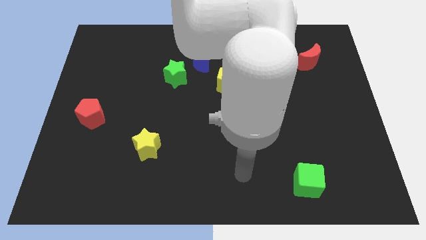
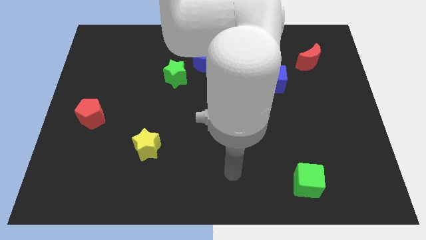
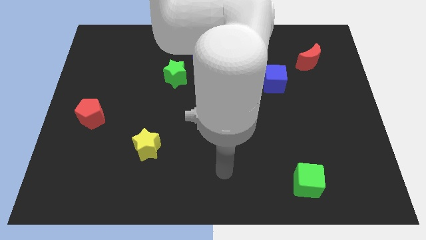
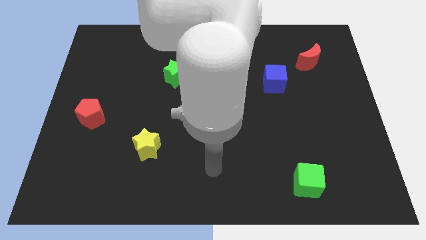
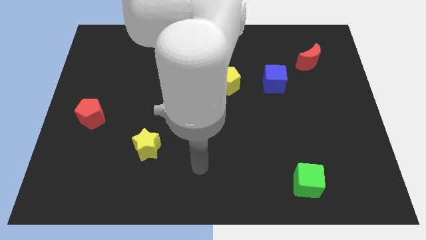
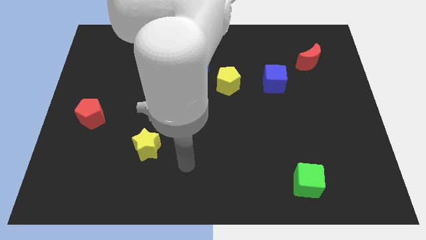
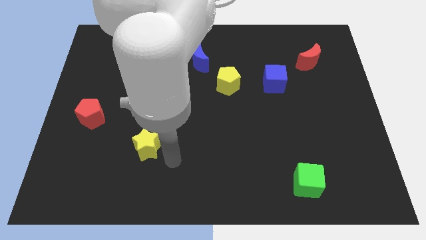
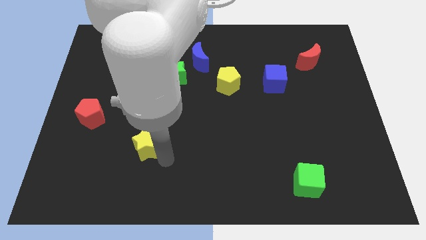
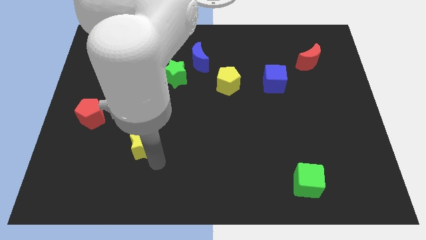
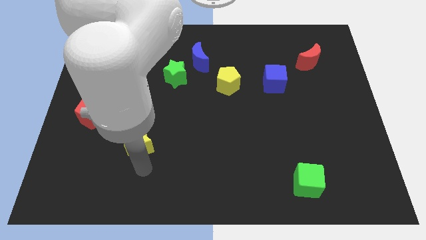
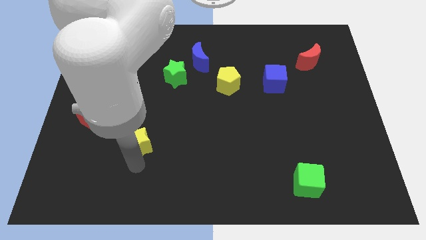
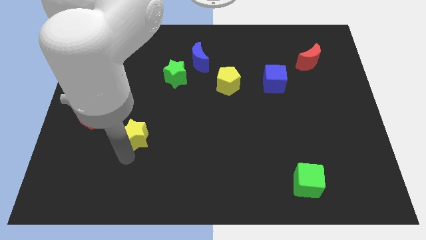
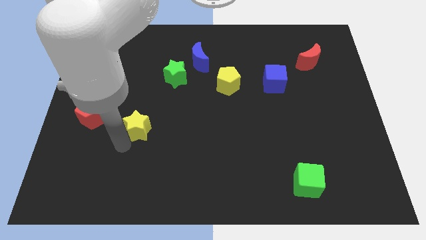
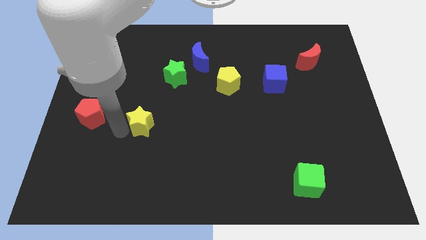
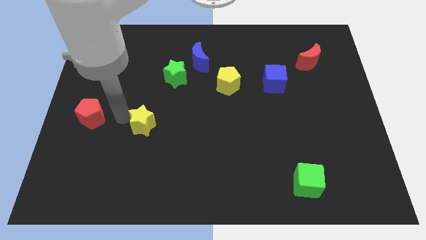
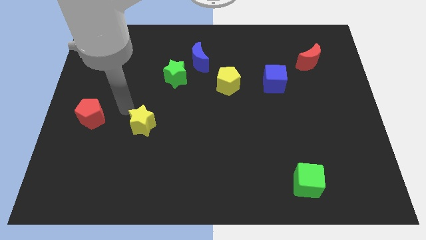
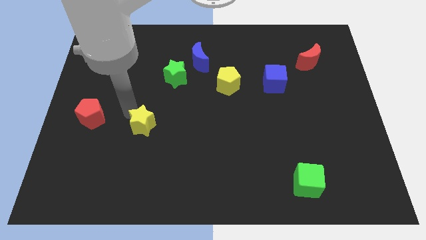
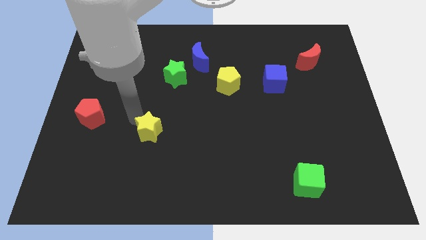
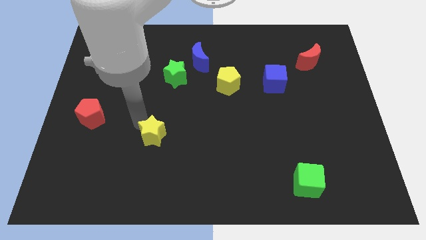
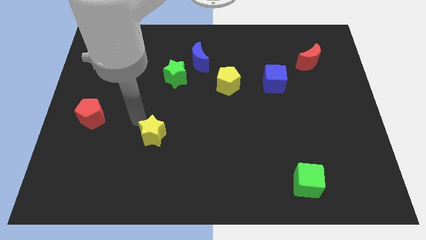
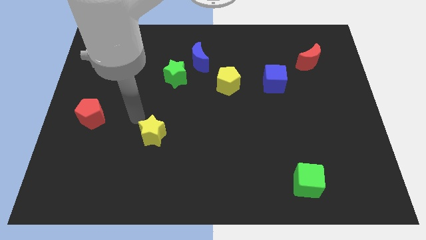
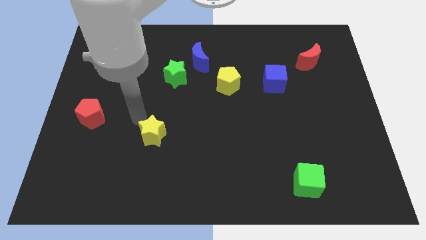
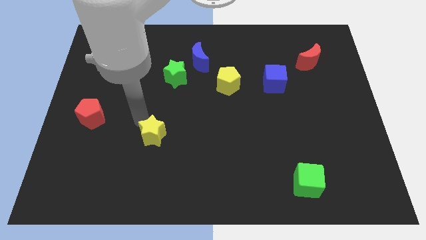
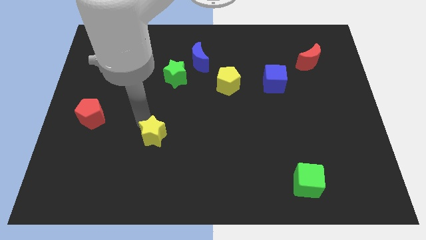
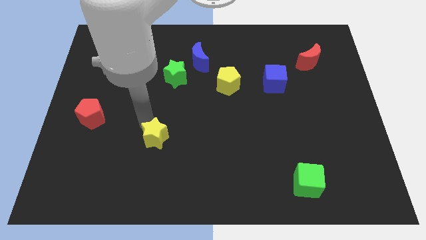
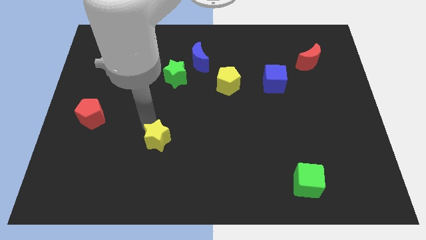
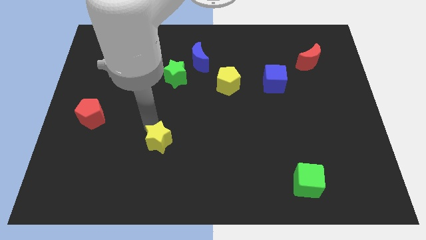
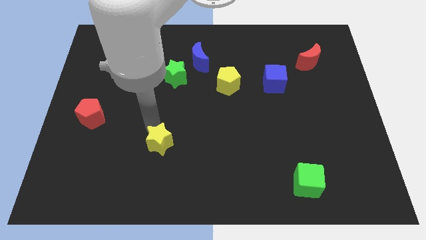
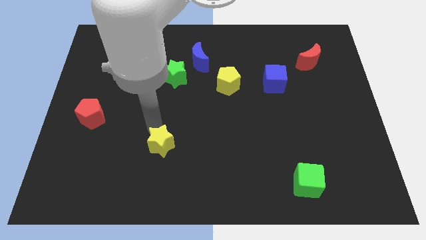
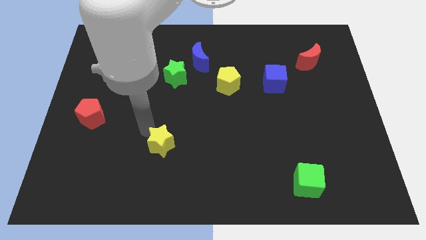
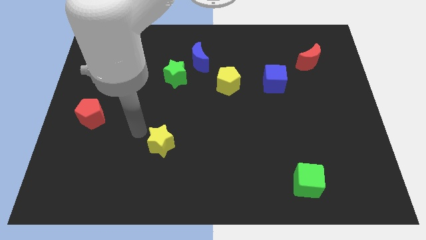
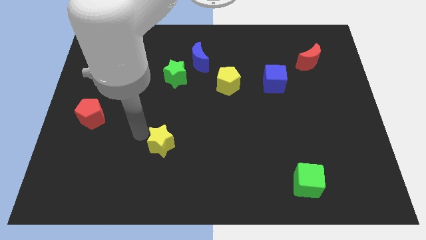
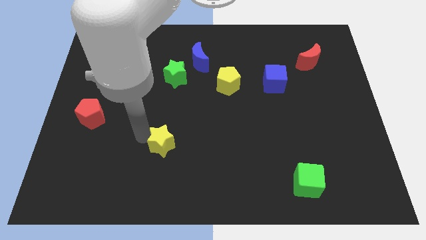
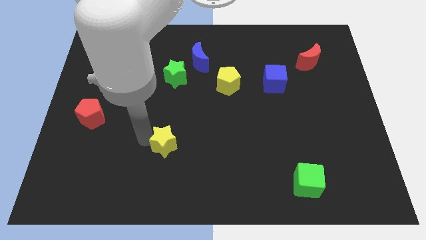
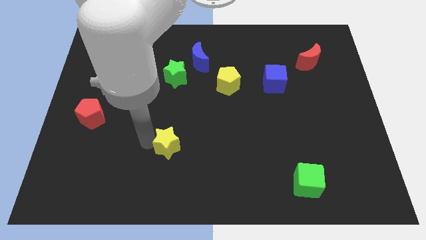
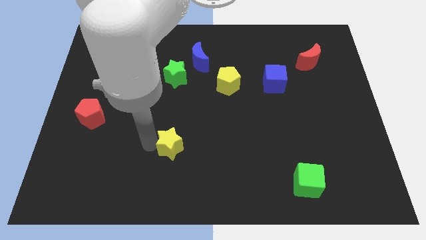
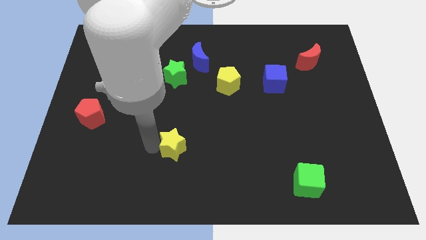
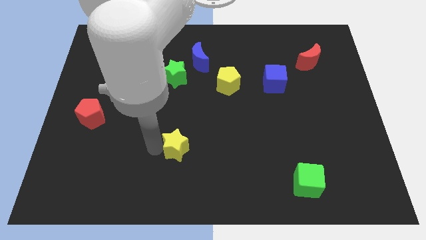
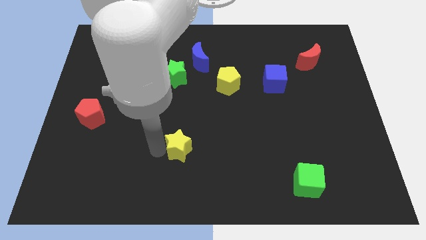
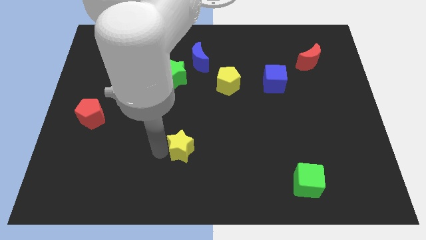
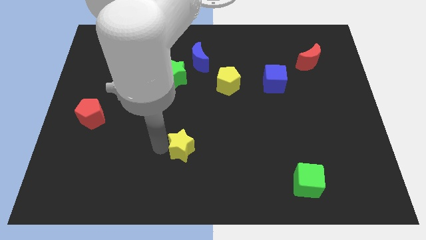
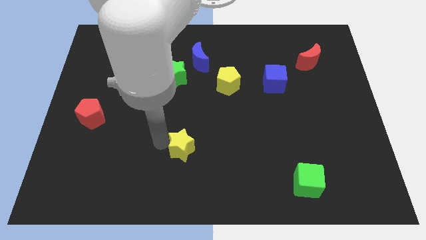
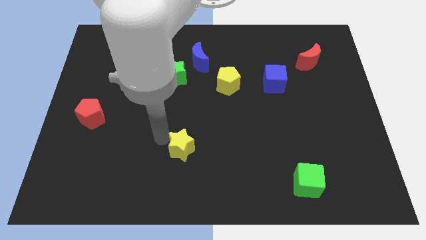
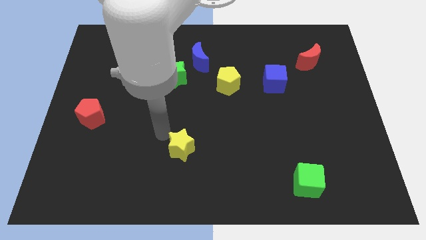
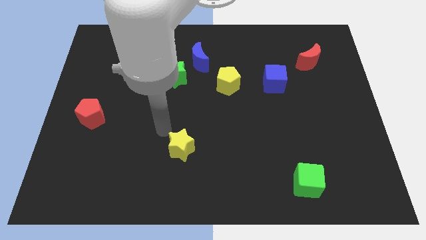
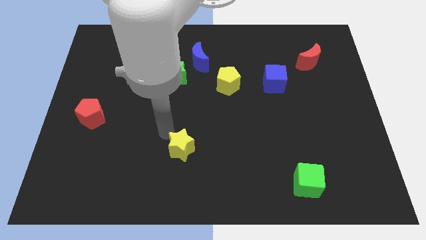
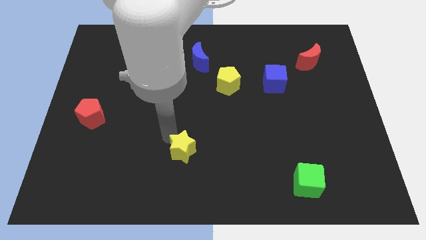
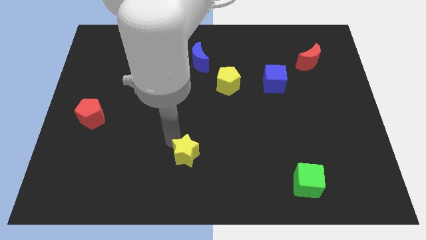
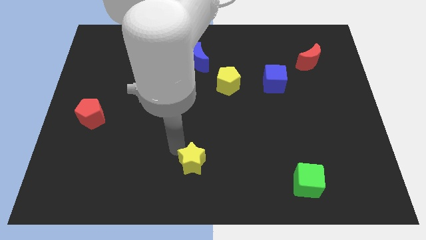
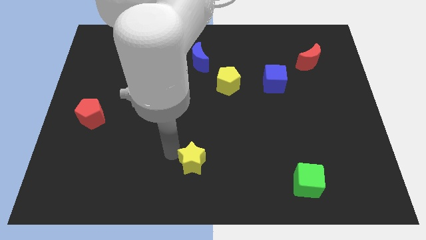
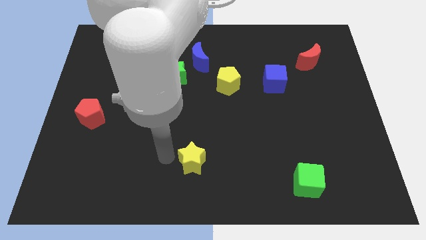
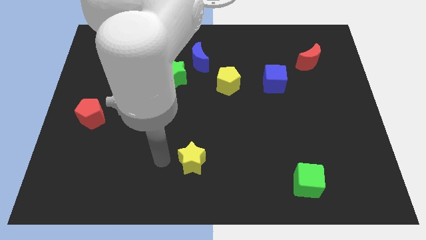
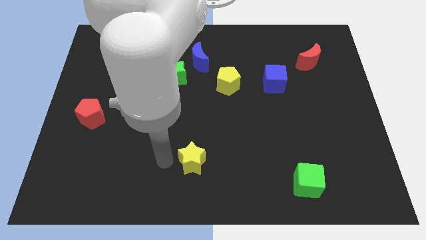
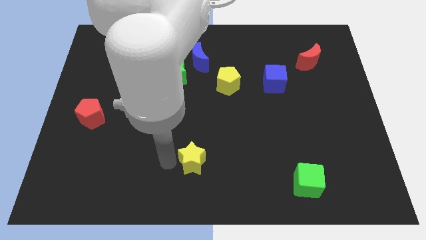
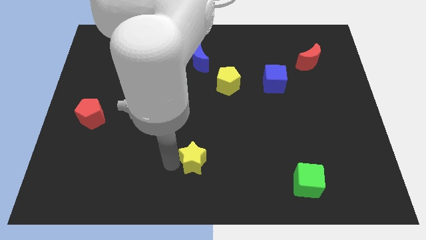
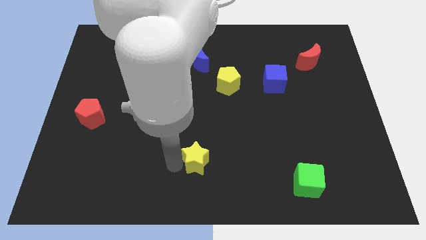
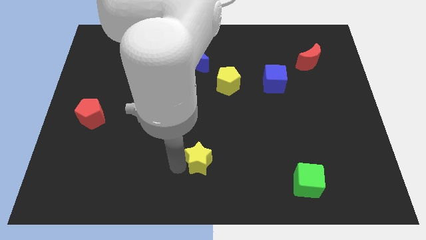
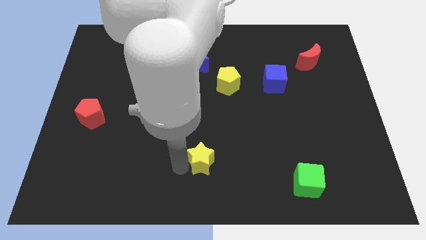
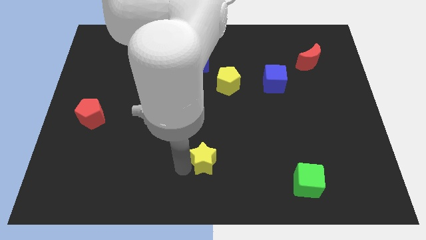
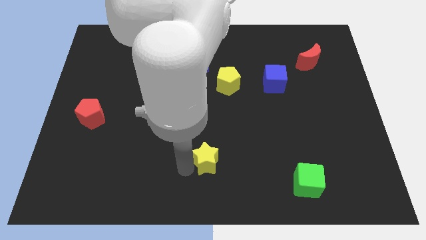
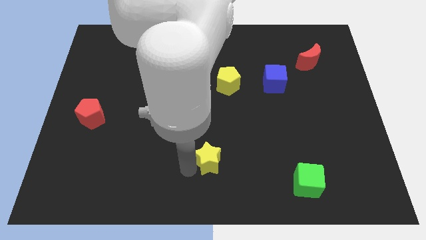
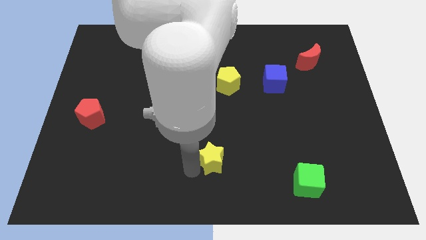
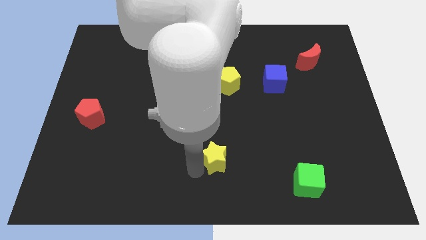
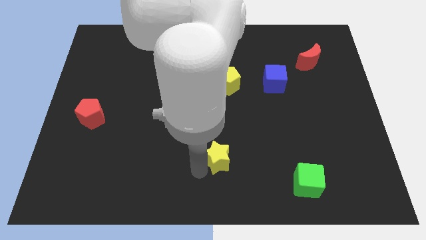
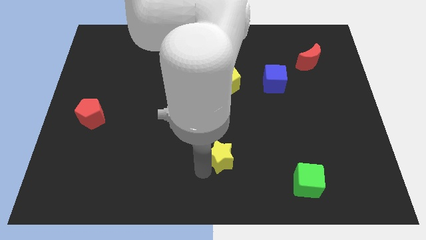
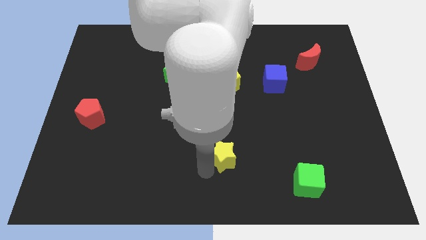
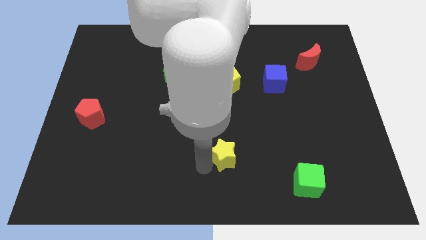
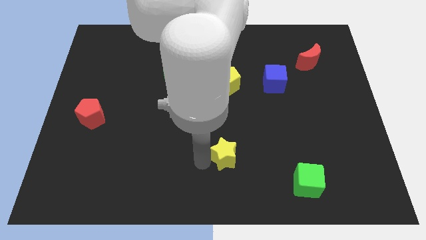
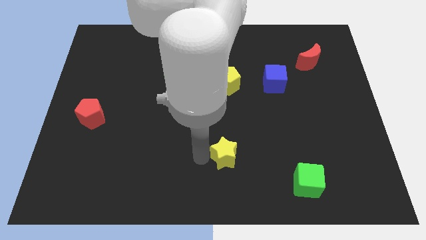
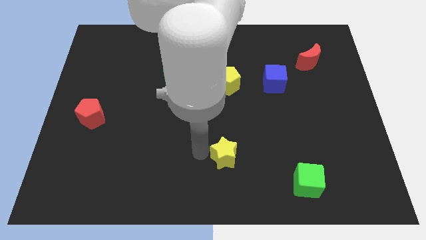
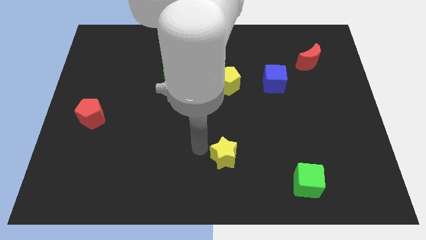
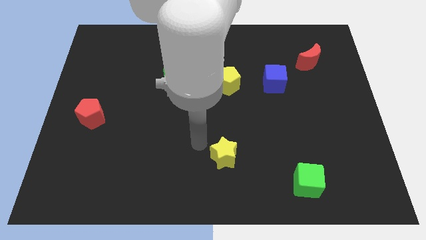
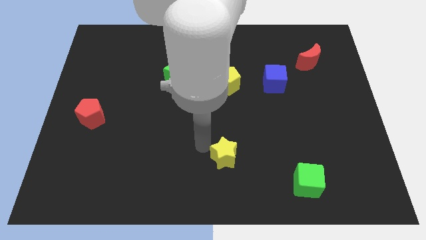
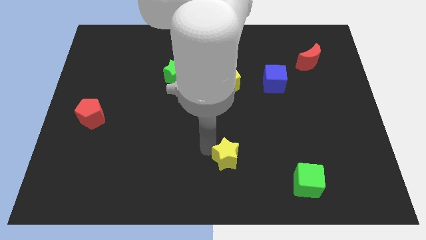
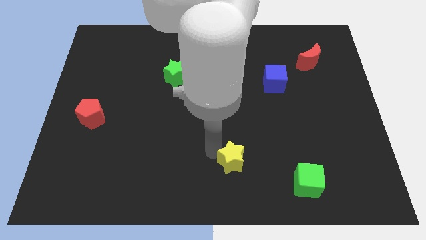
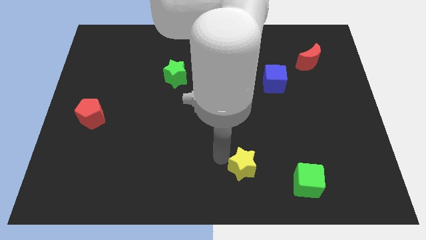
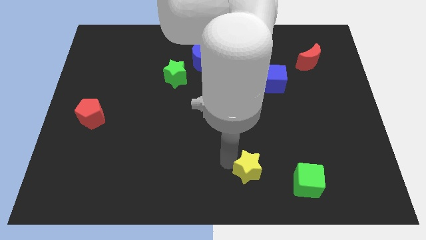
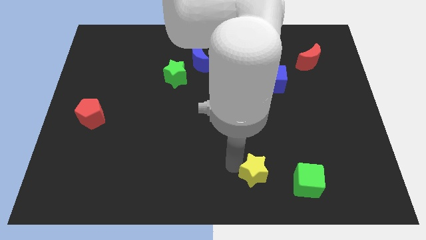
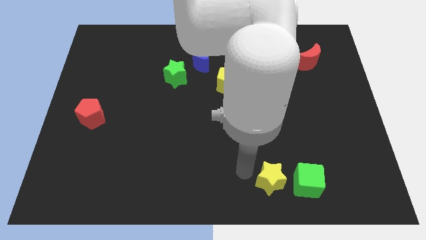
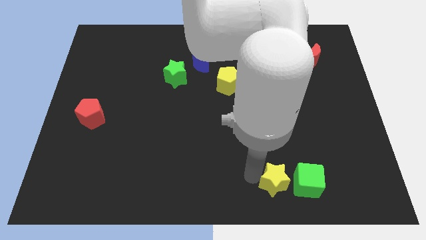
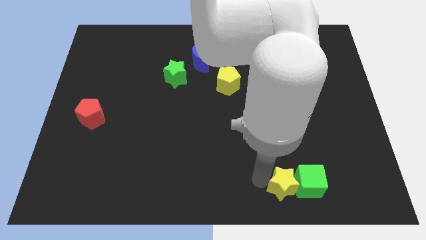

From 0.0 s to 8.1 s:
push the yellow star next to the green cube
